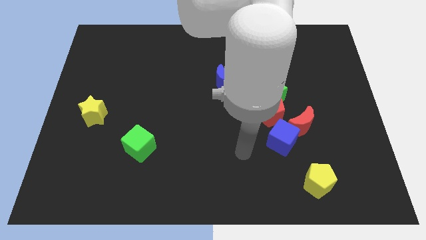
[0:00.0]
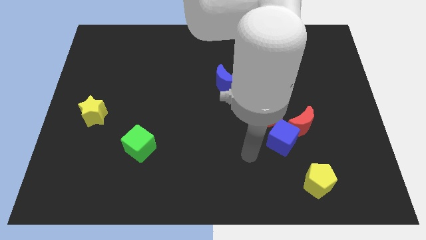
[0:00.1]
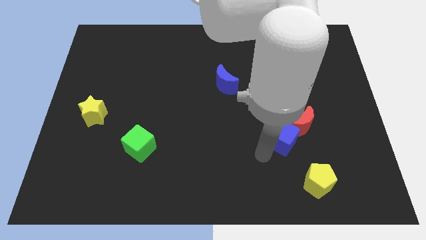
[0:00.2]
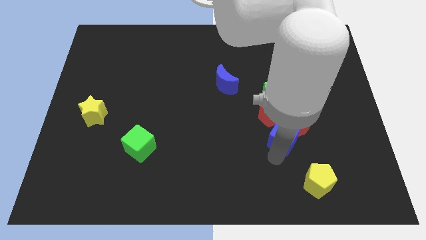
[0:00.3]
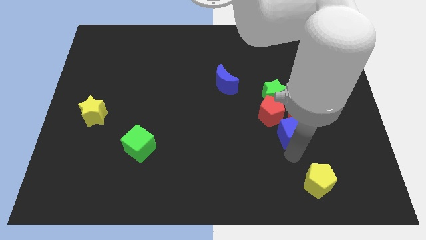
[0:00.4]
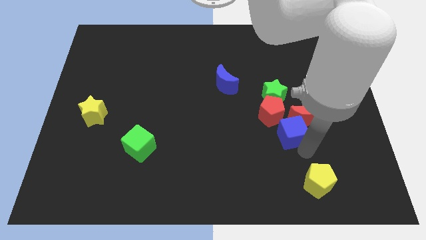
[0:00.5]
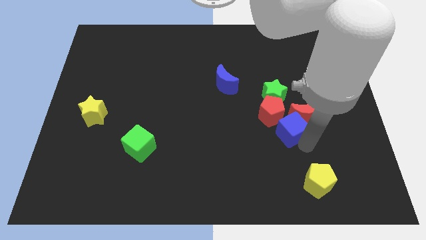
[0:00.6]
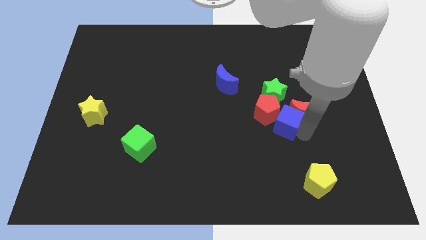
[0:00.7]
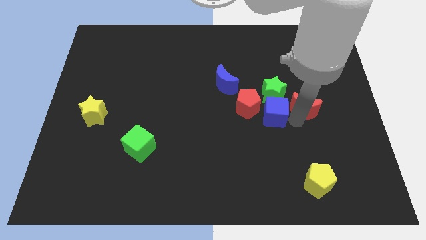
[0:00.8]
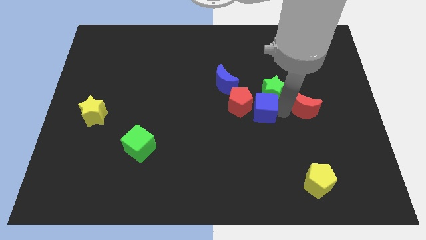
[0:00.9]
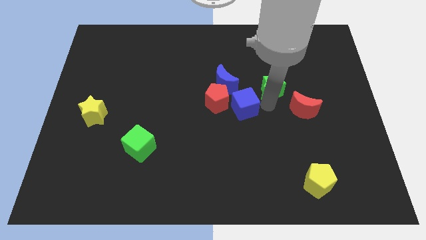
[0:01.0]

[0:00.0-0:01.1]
separate the red pentagon from the clump

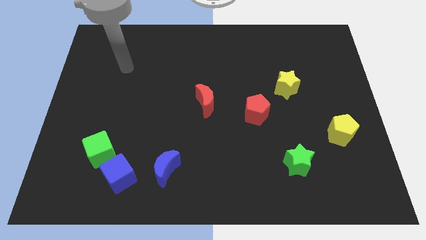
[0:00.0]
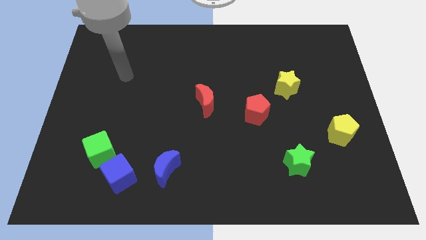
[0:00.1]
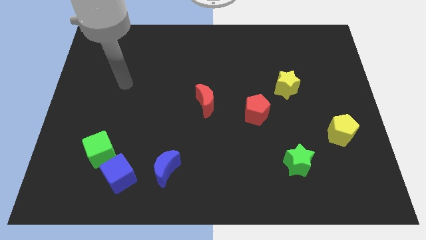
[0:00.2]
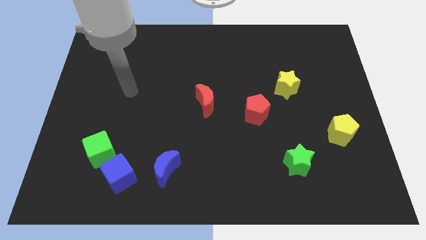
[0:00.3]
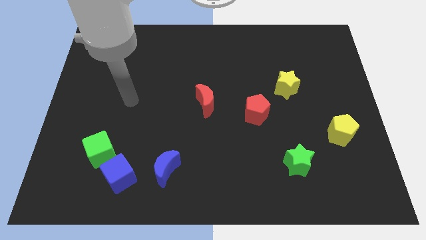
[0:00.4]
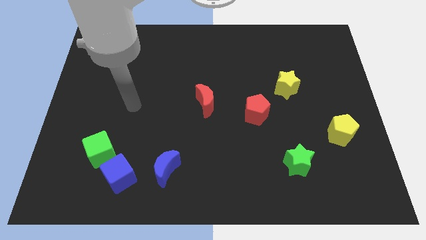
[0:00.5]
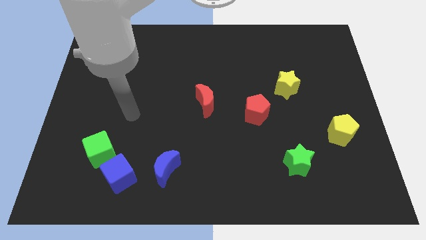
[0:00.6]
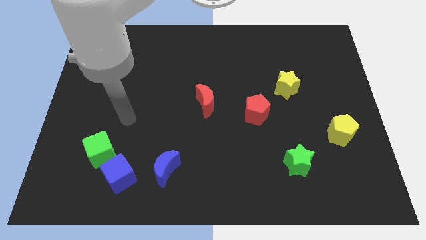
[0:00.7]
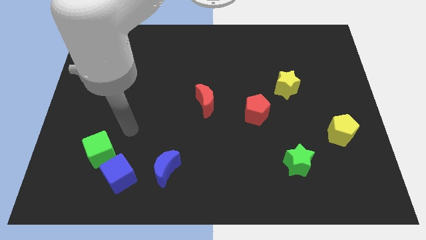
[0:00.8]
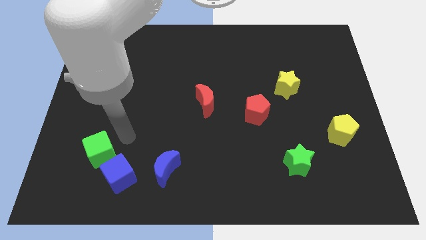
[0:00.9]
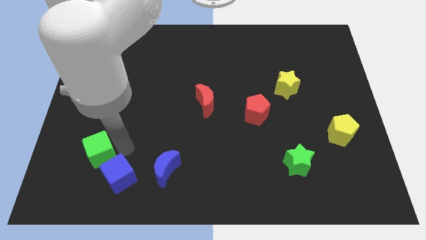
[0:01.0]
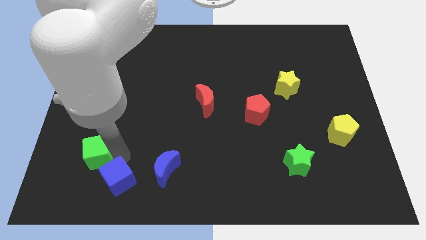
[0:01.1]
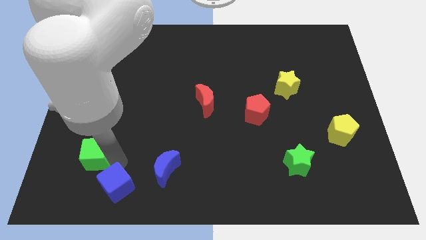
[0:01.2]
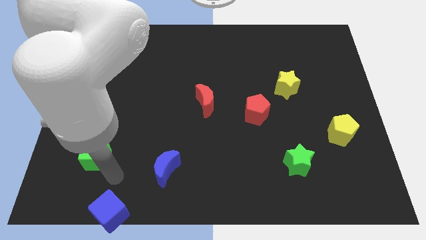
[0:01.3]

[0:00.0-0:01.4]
separate the green cube from the blue cube

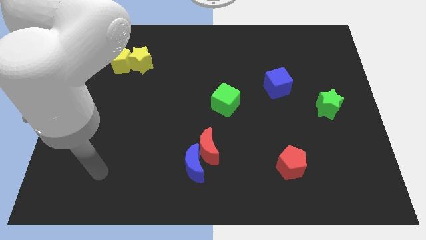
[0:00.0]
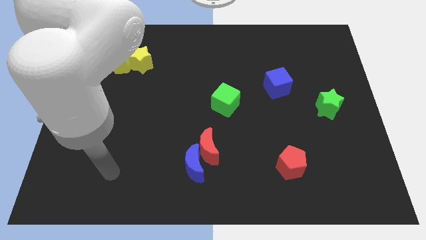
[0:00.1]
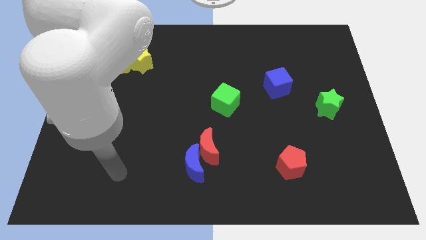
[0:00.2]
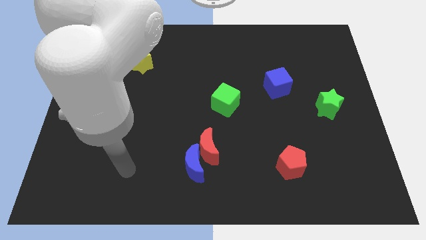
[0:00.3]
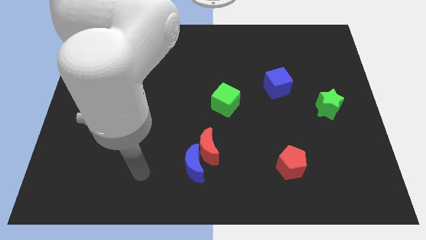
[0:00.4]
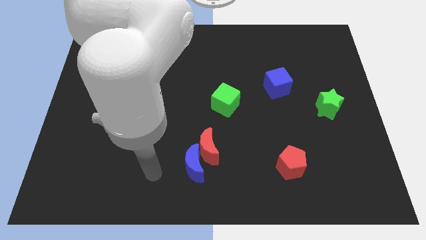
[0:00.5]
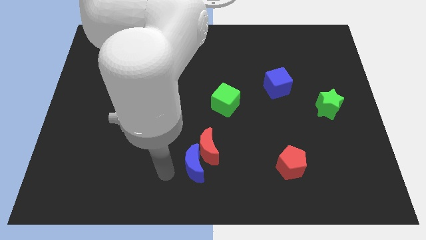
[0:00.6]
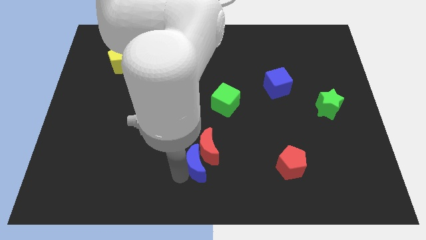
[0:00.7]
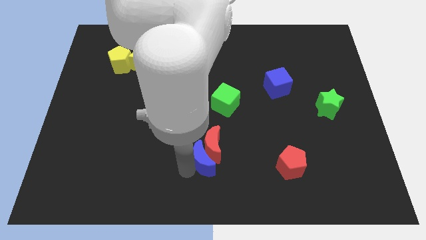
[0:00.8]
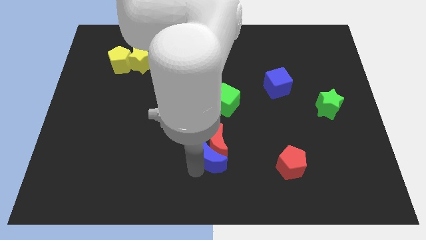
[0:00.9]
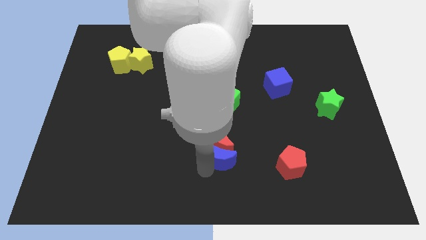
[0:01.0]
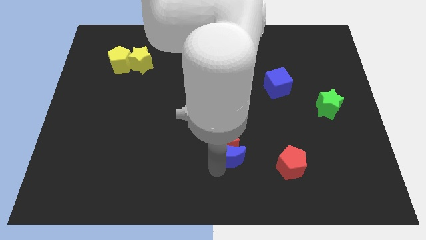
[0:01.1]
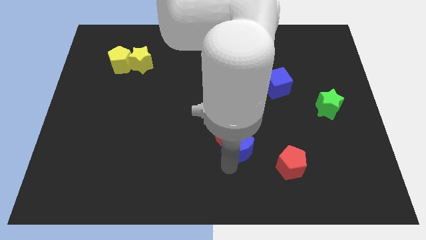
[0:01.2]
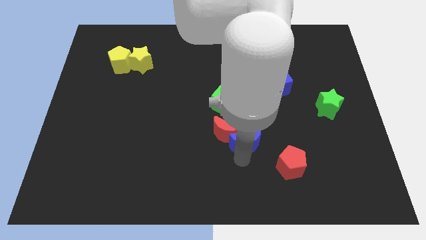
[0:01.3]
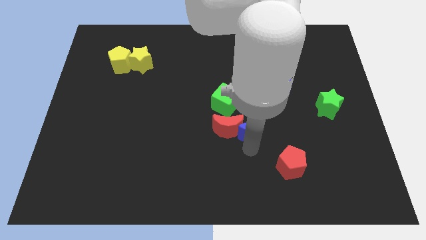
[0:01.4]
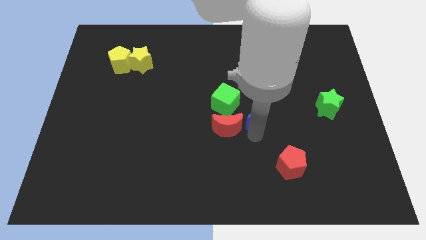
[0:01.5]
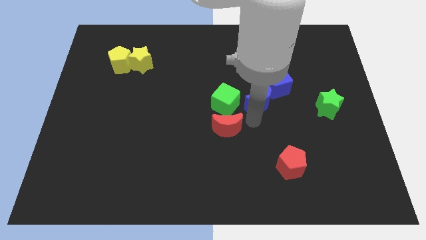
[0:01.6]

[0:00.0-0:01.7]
move the red moon away from the blue moon

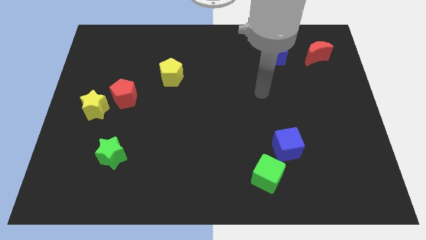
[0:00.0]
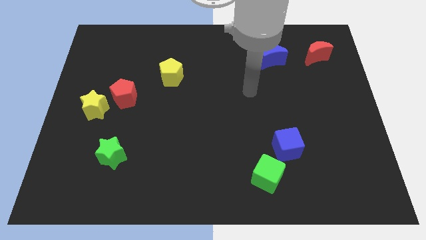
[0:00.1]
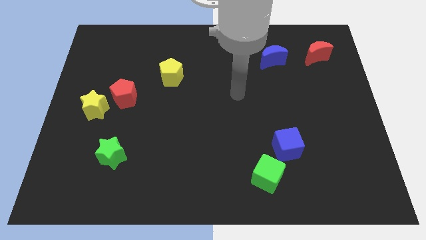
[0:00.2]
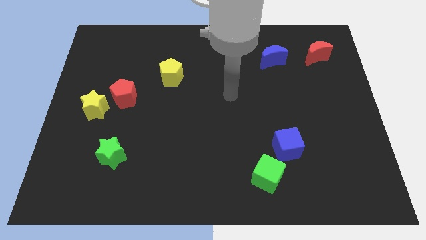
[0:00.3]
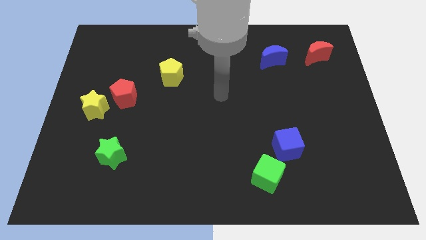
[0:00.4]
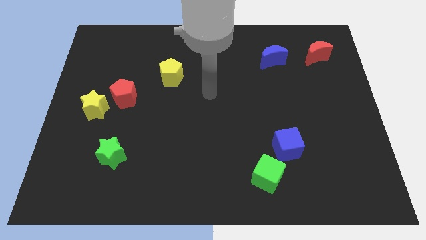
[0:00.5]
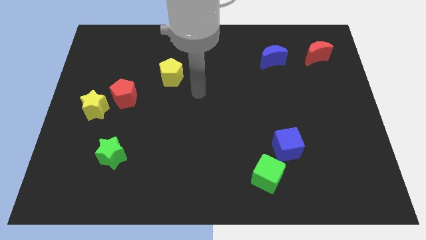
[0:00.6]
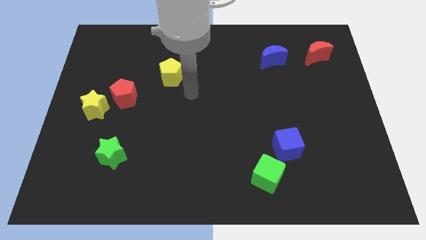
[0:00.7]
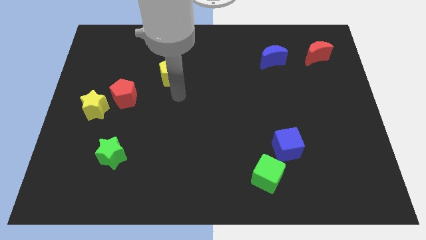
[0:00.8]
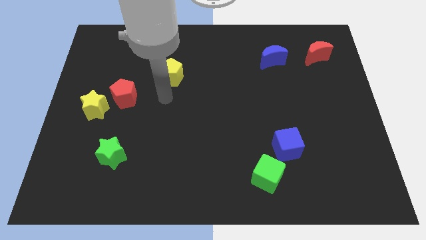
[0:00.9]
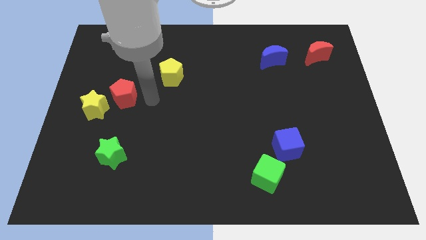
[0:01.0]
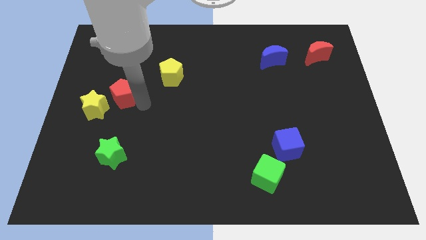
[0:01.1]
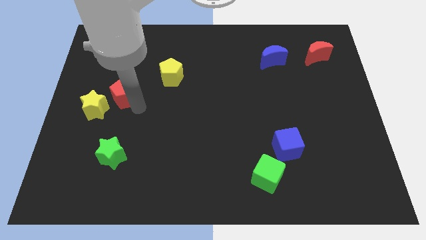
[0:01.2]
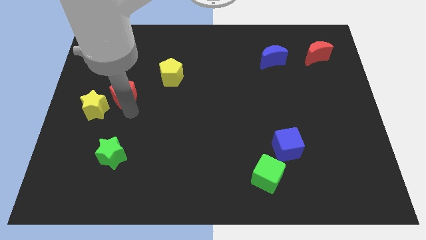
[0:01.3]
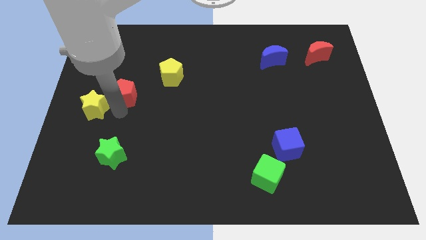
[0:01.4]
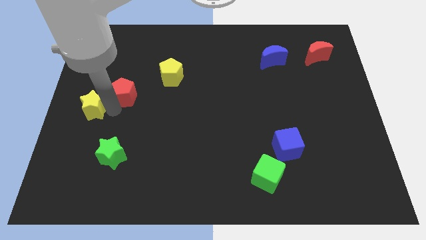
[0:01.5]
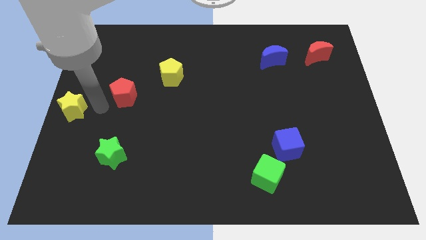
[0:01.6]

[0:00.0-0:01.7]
move the red pentagon away from the yellow star

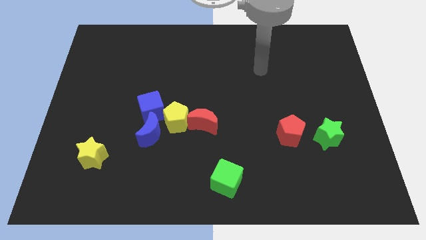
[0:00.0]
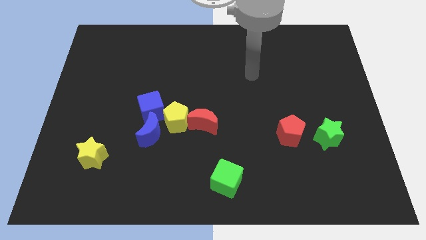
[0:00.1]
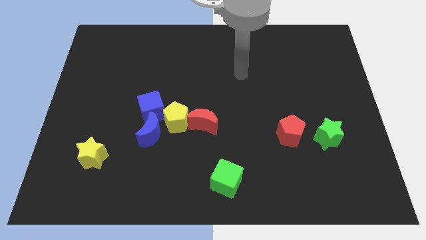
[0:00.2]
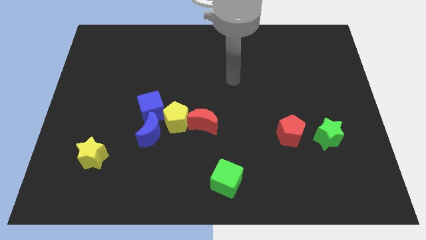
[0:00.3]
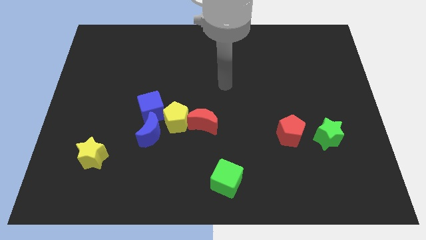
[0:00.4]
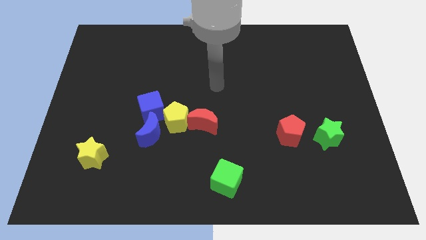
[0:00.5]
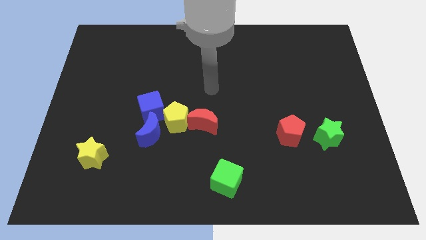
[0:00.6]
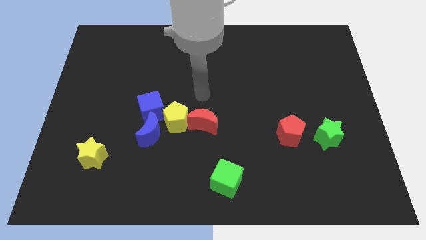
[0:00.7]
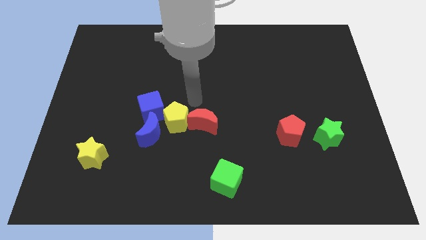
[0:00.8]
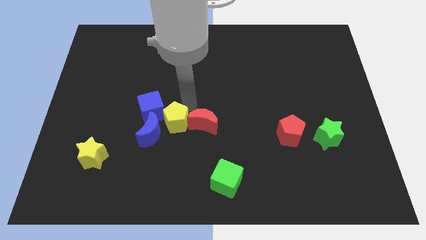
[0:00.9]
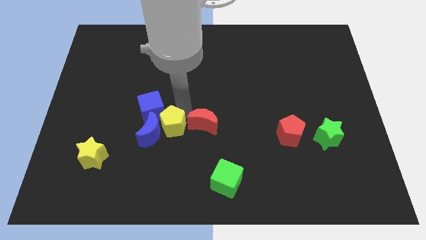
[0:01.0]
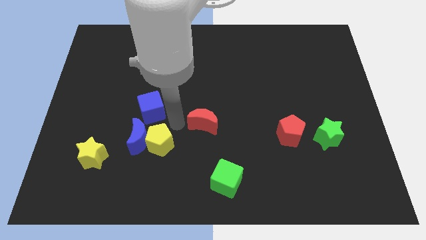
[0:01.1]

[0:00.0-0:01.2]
move the red moon away from the yellow pentagon

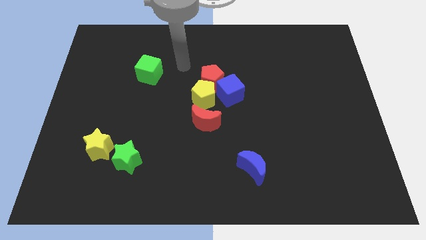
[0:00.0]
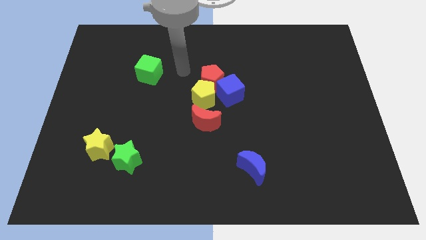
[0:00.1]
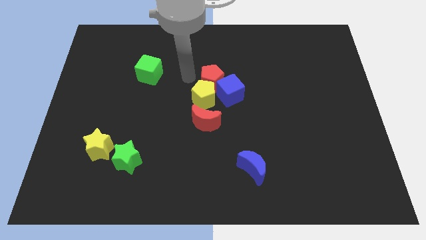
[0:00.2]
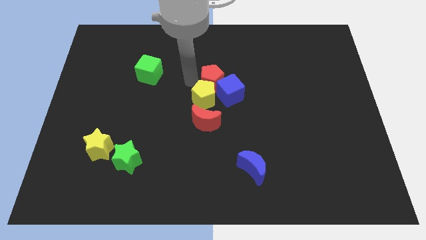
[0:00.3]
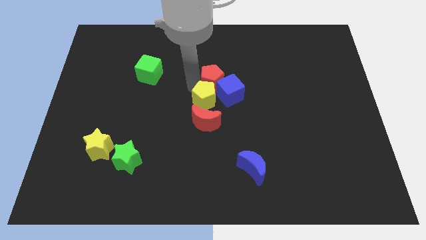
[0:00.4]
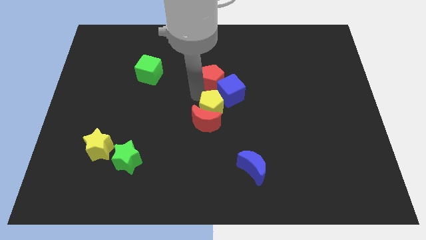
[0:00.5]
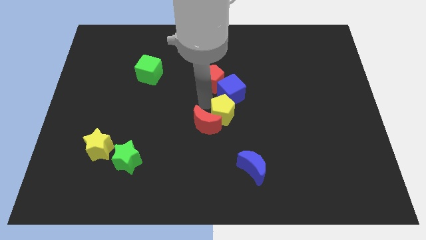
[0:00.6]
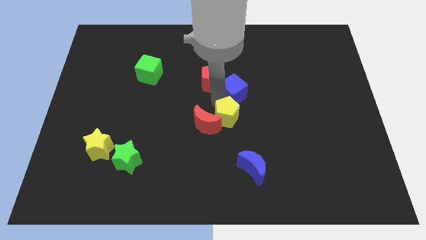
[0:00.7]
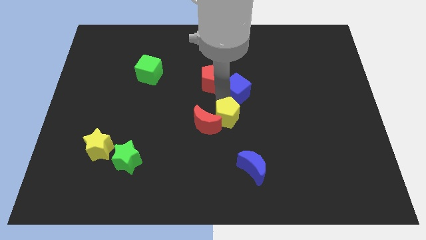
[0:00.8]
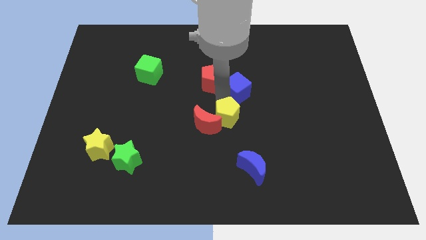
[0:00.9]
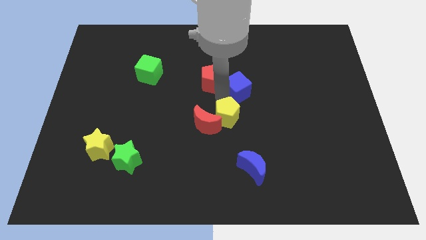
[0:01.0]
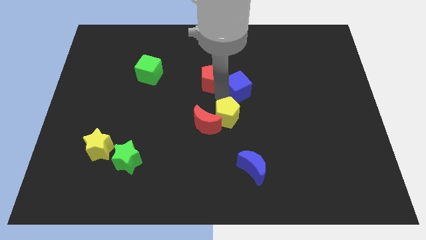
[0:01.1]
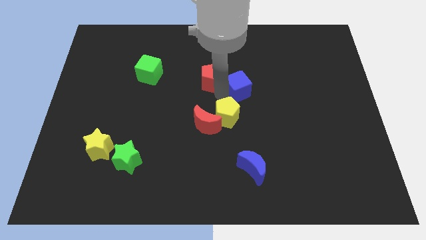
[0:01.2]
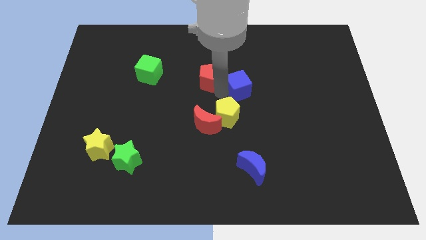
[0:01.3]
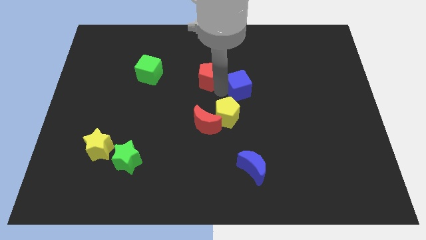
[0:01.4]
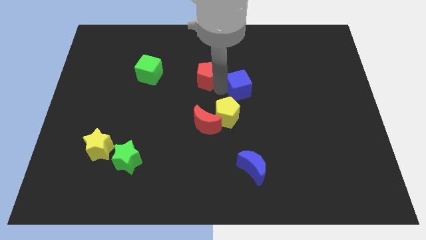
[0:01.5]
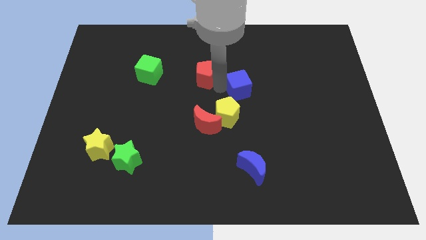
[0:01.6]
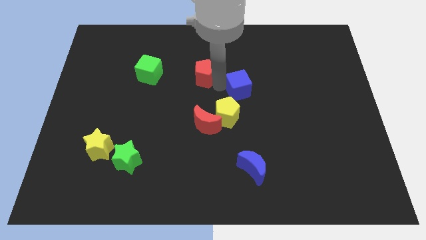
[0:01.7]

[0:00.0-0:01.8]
separate the red pentagon from the yellow pentagon and blue cube

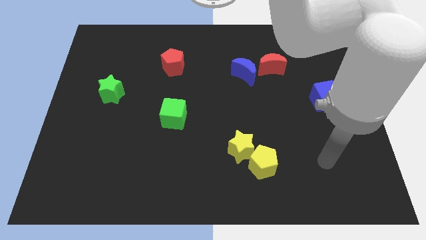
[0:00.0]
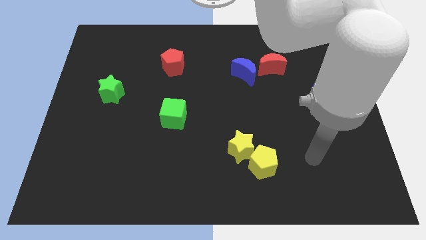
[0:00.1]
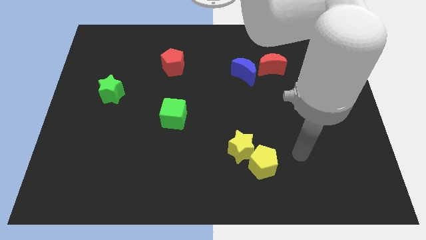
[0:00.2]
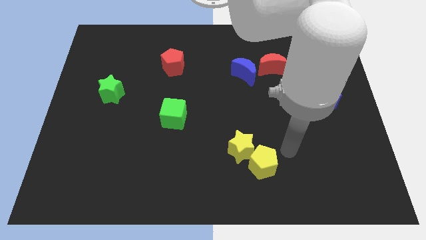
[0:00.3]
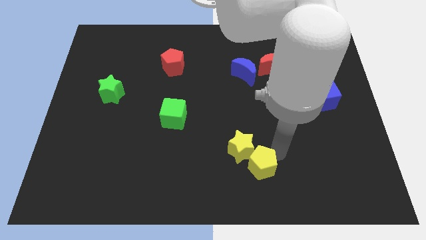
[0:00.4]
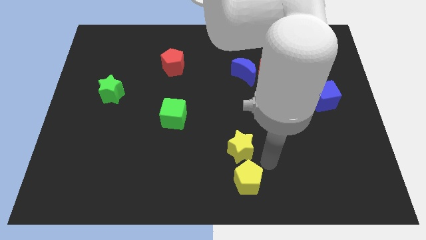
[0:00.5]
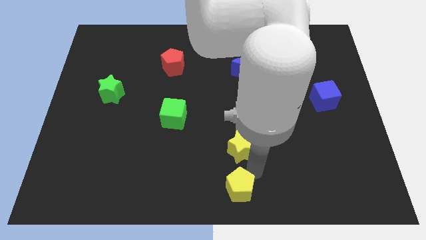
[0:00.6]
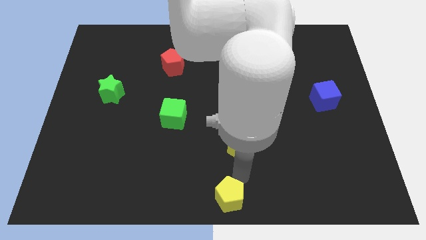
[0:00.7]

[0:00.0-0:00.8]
move the yellow star away from the yellow pentagon
